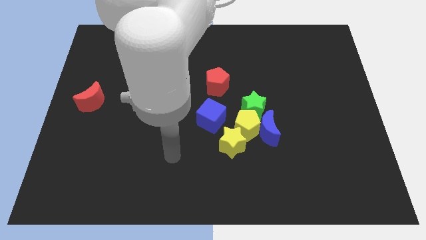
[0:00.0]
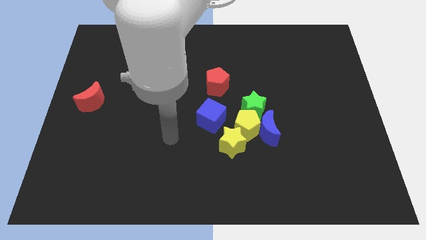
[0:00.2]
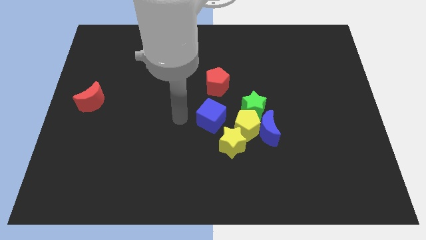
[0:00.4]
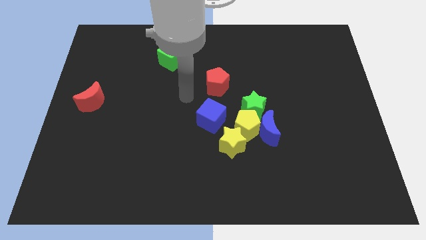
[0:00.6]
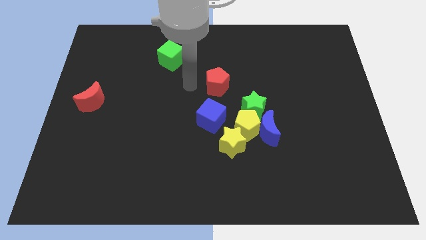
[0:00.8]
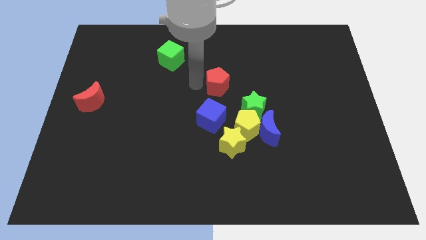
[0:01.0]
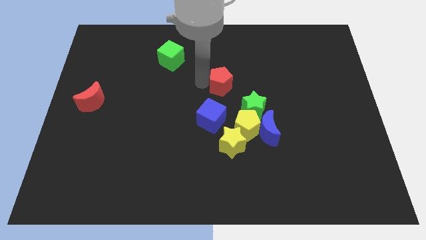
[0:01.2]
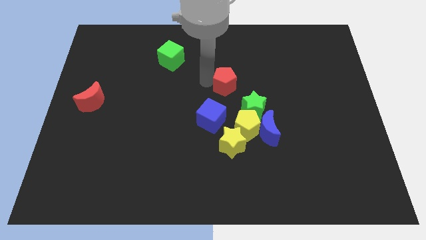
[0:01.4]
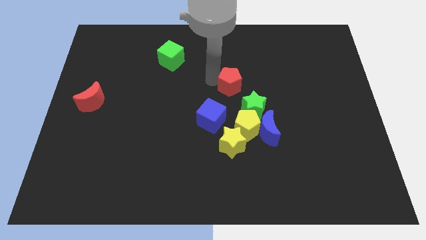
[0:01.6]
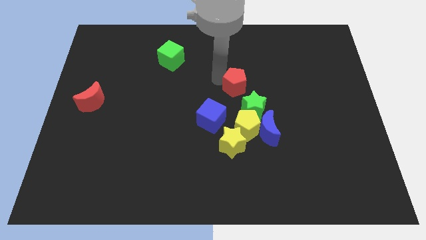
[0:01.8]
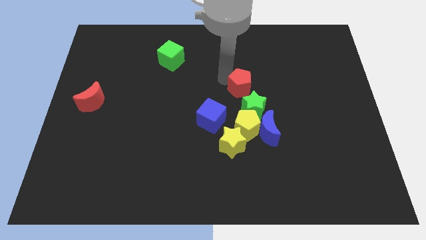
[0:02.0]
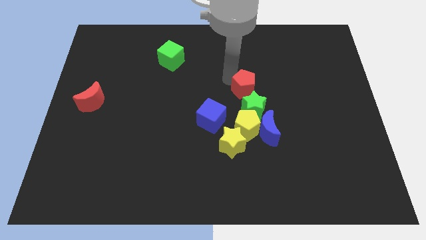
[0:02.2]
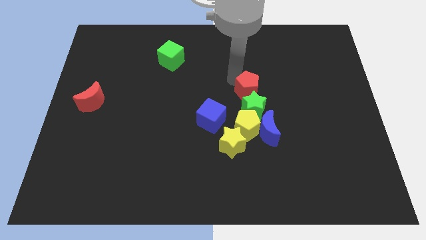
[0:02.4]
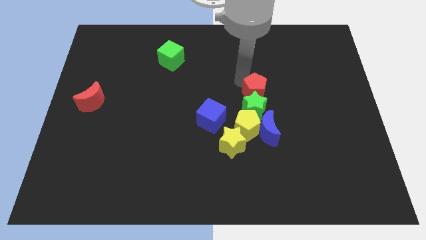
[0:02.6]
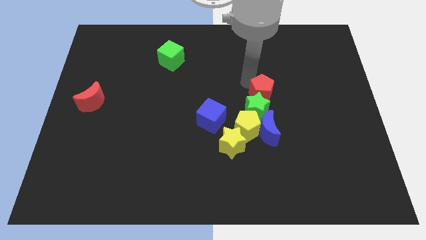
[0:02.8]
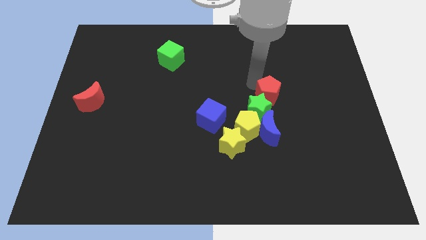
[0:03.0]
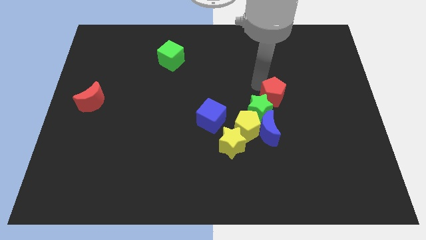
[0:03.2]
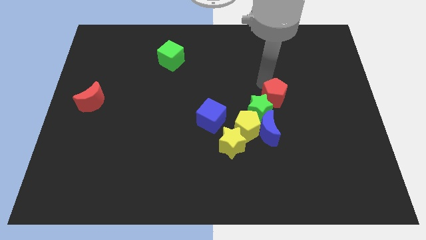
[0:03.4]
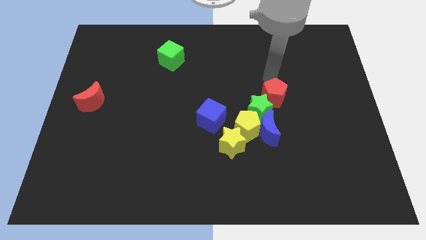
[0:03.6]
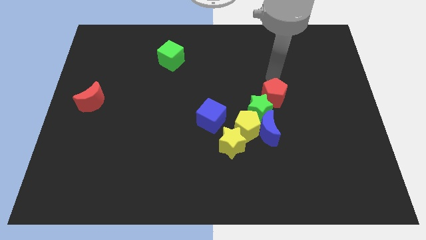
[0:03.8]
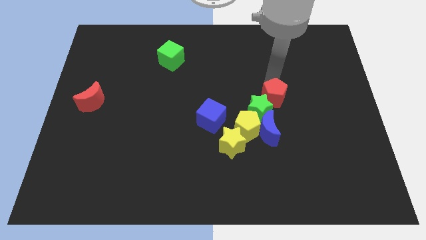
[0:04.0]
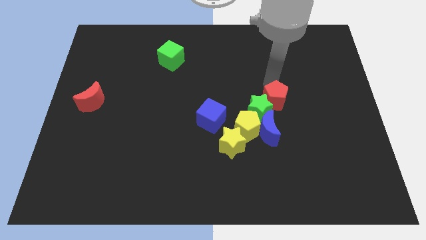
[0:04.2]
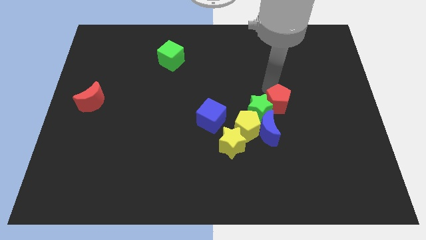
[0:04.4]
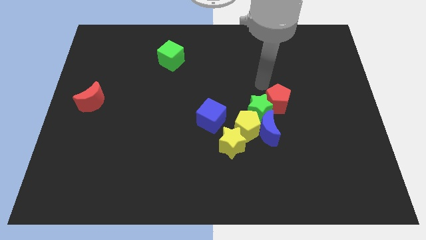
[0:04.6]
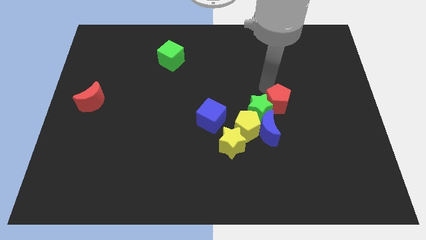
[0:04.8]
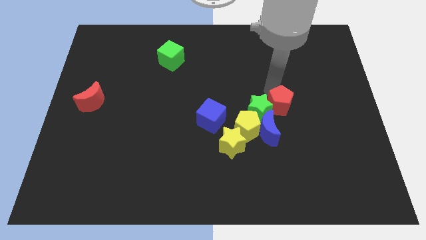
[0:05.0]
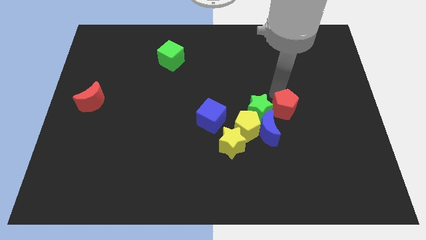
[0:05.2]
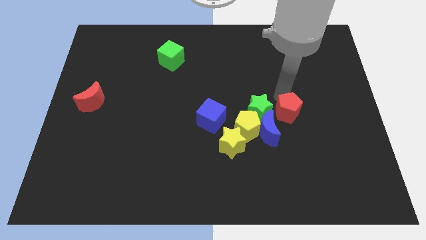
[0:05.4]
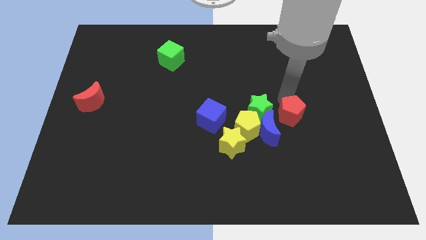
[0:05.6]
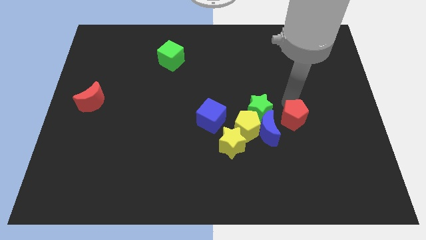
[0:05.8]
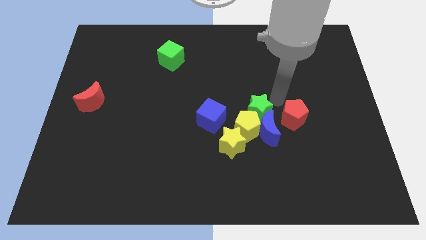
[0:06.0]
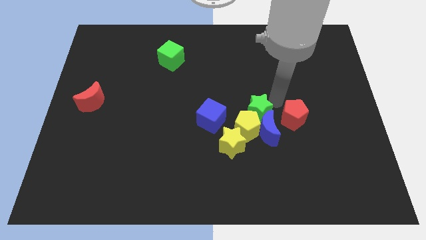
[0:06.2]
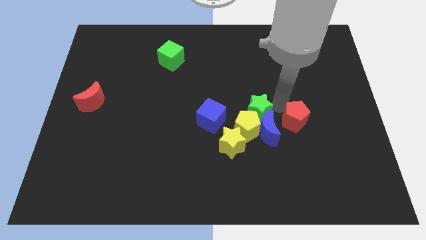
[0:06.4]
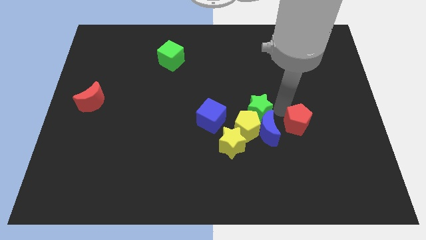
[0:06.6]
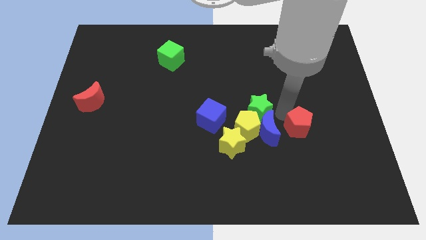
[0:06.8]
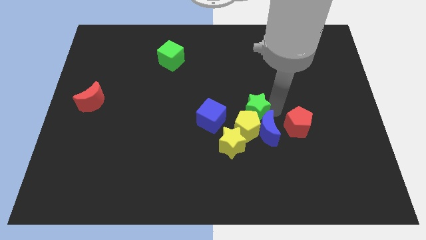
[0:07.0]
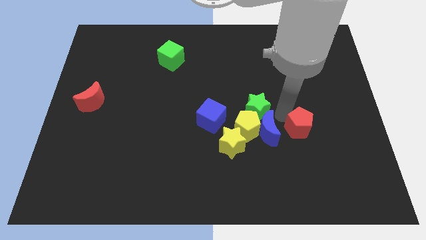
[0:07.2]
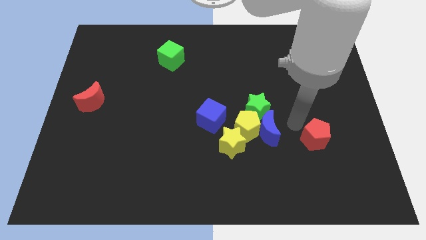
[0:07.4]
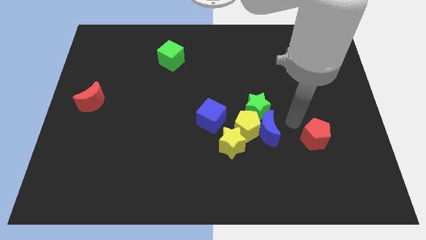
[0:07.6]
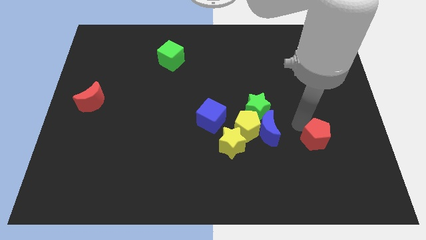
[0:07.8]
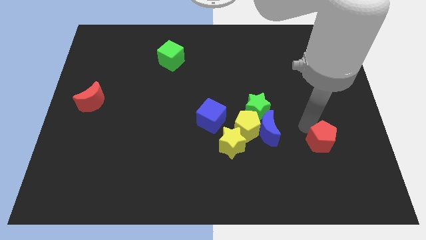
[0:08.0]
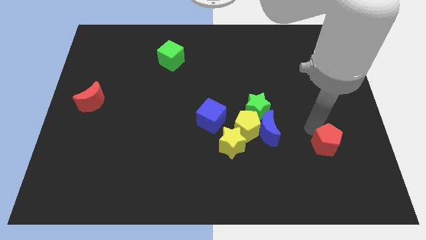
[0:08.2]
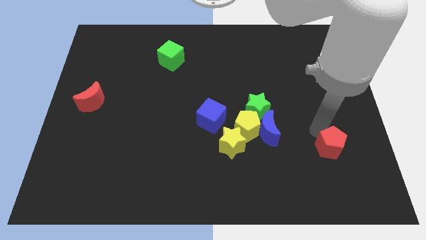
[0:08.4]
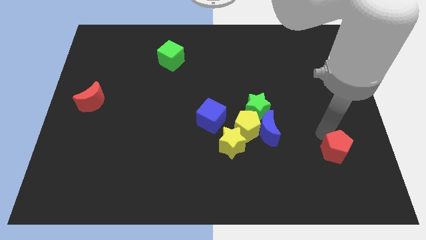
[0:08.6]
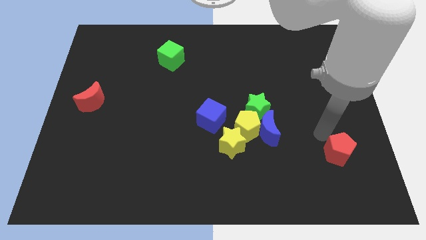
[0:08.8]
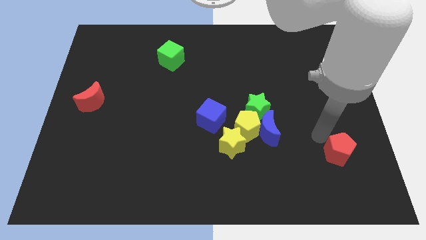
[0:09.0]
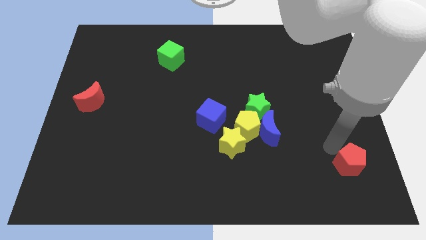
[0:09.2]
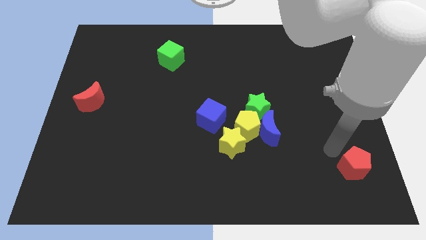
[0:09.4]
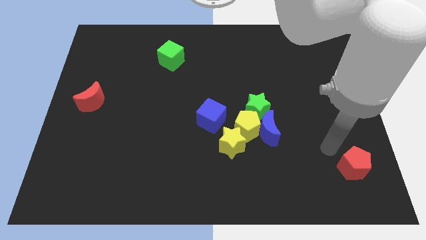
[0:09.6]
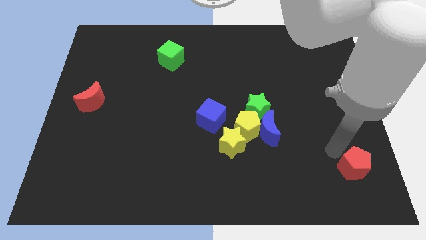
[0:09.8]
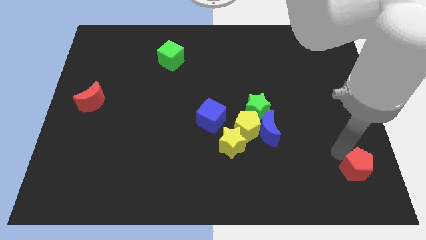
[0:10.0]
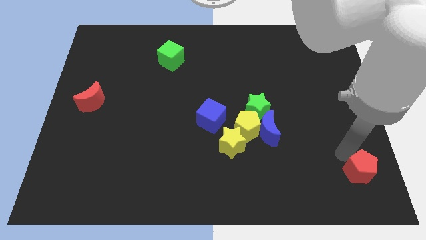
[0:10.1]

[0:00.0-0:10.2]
push the red pentagon to the bottom right corner
